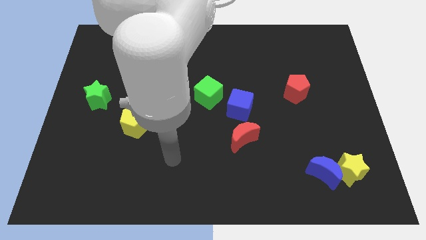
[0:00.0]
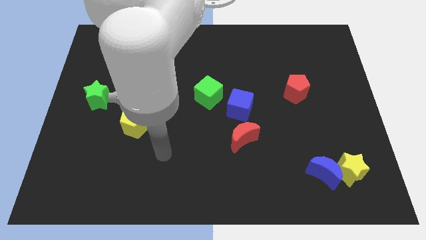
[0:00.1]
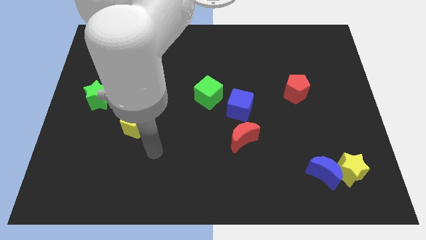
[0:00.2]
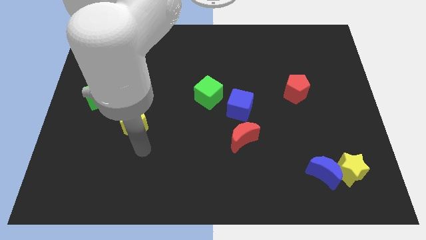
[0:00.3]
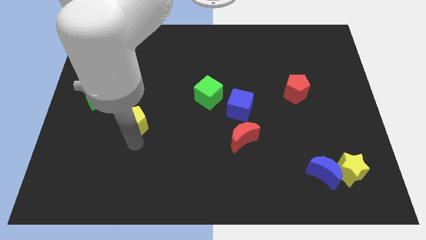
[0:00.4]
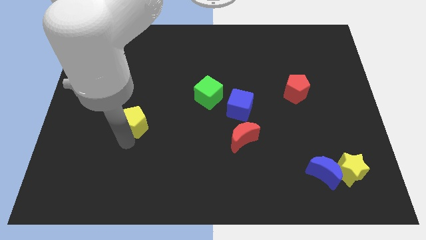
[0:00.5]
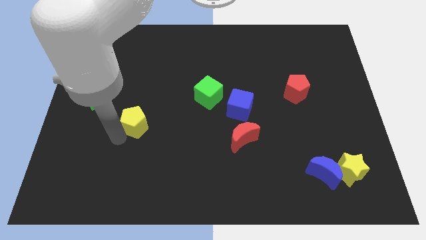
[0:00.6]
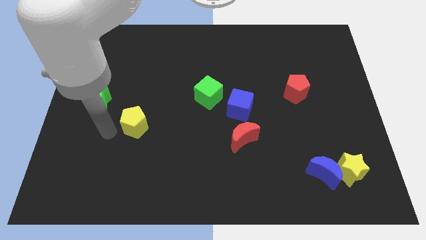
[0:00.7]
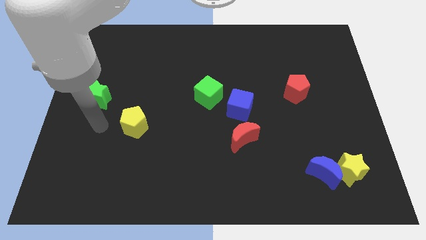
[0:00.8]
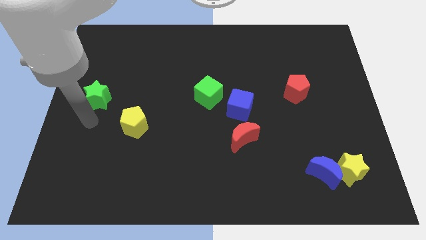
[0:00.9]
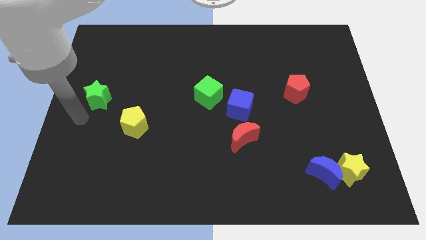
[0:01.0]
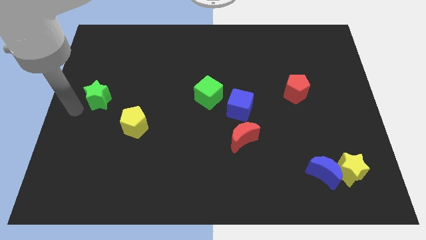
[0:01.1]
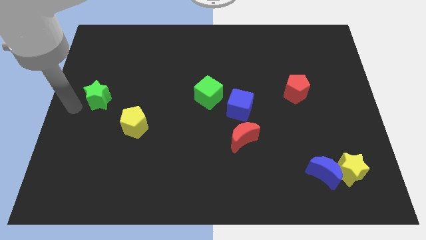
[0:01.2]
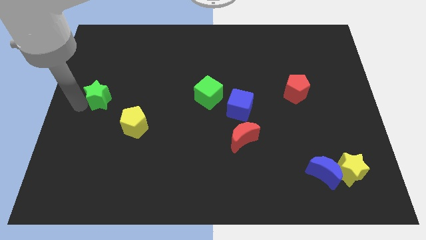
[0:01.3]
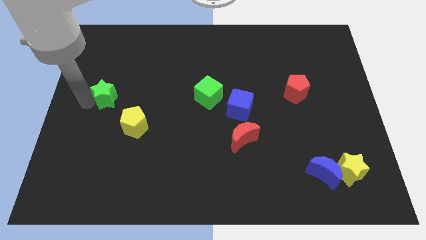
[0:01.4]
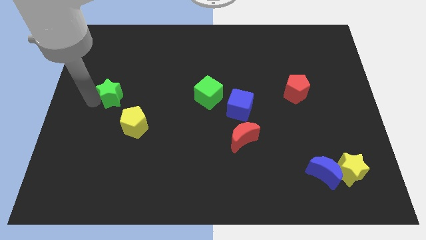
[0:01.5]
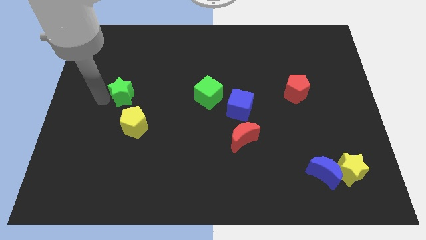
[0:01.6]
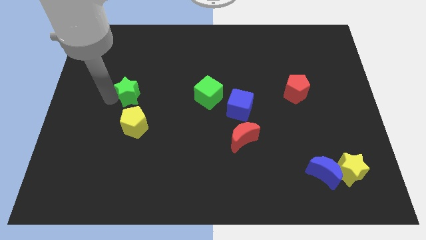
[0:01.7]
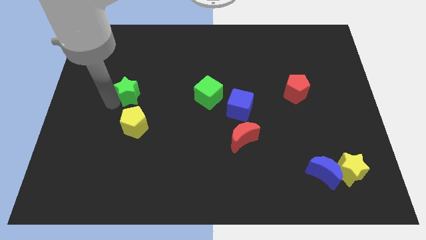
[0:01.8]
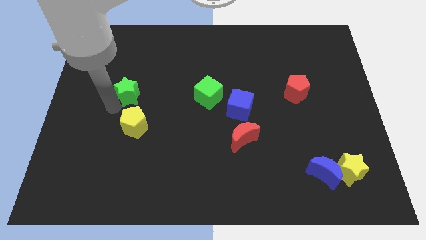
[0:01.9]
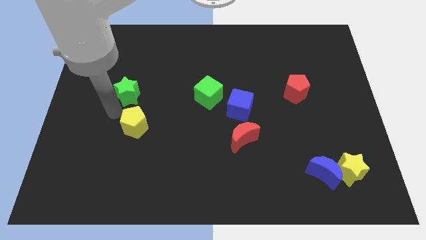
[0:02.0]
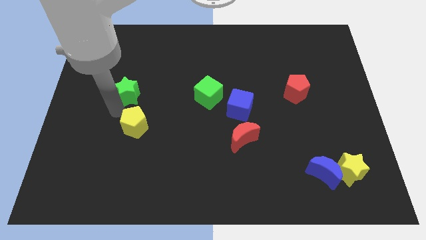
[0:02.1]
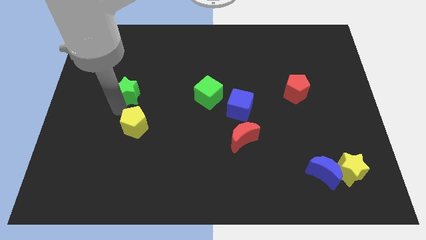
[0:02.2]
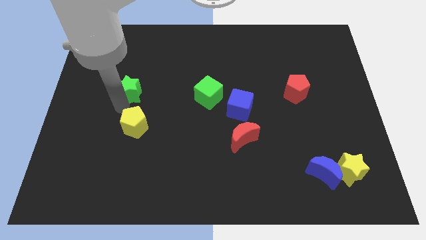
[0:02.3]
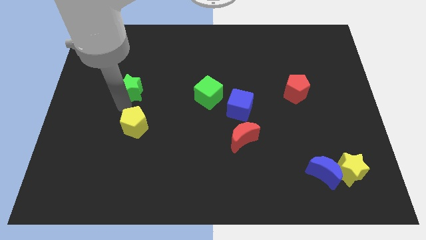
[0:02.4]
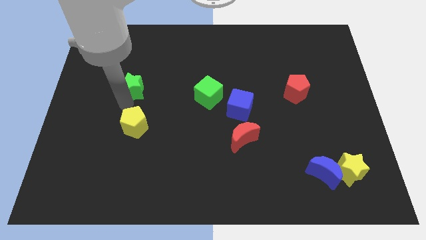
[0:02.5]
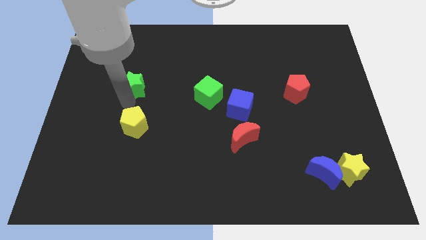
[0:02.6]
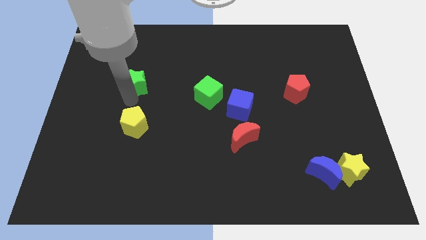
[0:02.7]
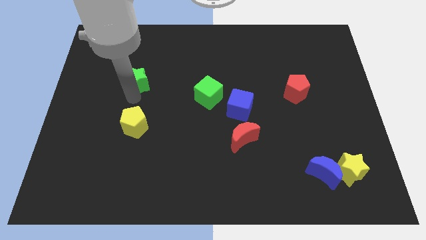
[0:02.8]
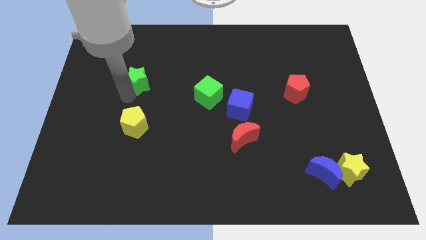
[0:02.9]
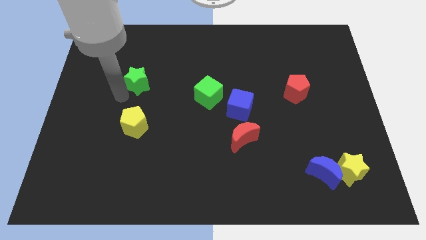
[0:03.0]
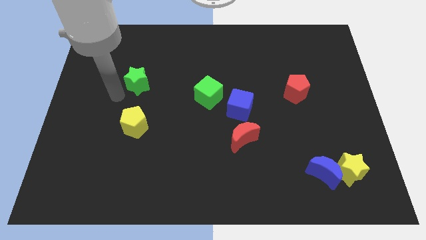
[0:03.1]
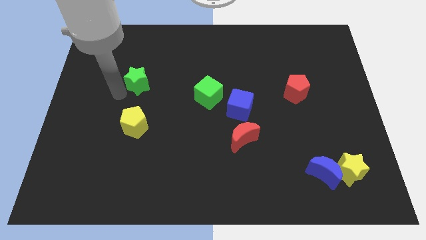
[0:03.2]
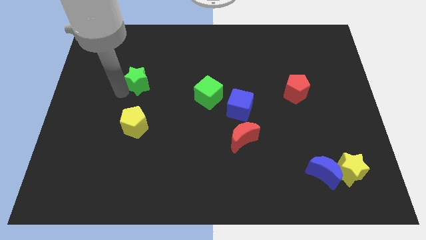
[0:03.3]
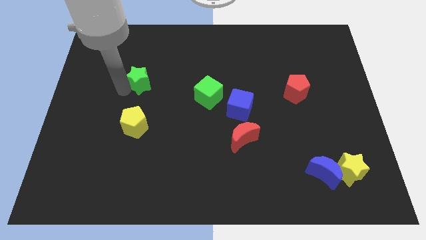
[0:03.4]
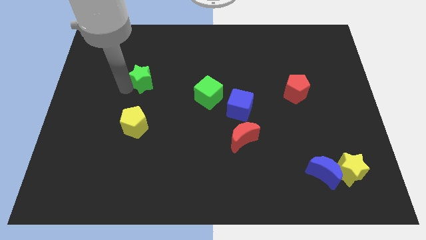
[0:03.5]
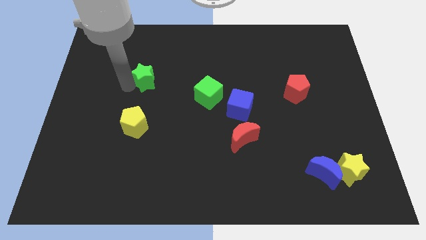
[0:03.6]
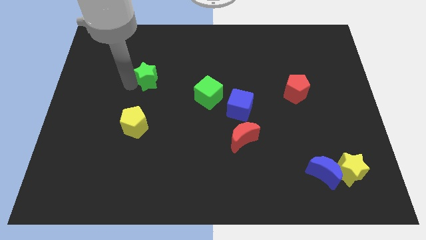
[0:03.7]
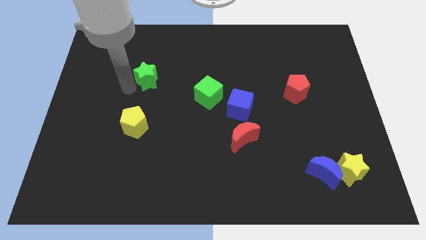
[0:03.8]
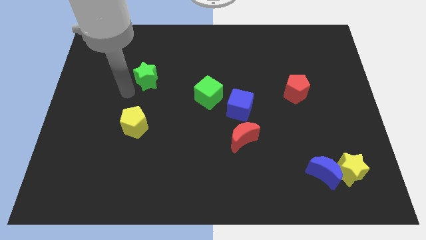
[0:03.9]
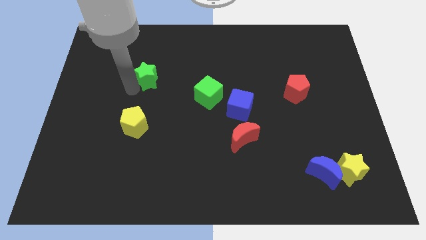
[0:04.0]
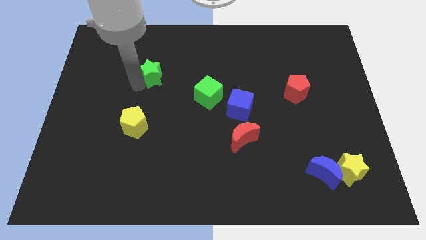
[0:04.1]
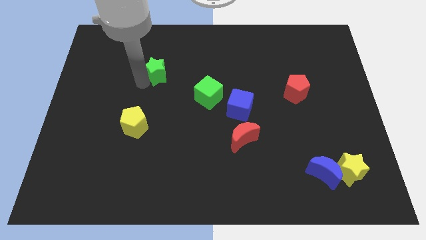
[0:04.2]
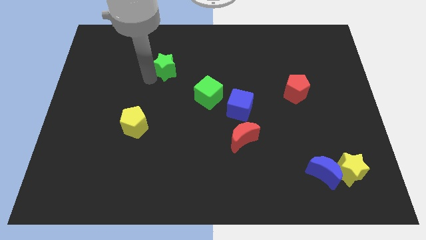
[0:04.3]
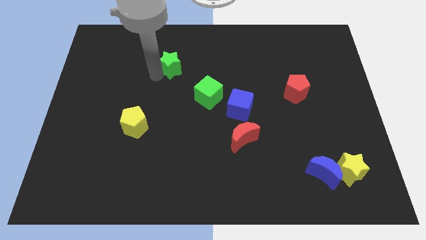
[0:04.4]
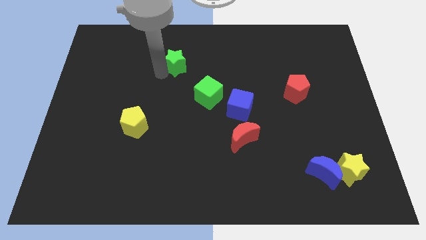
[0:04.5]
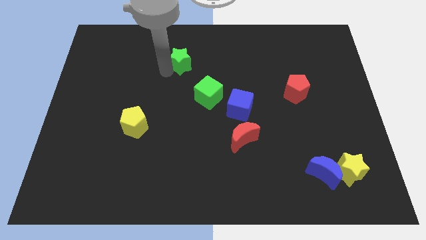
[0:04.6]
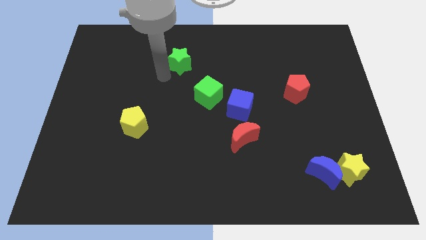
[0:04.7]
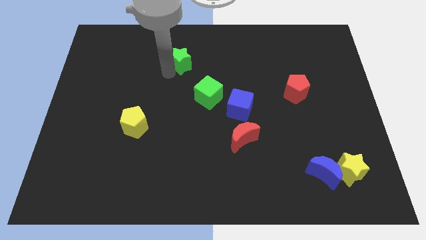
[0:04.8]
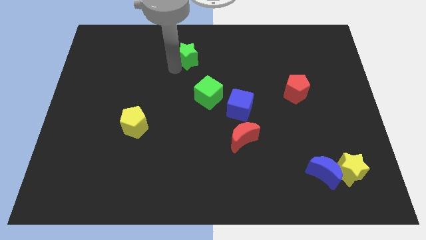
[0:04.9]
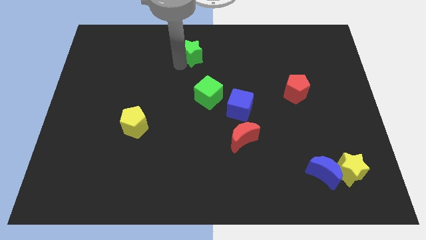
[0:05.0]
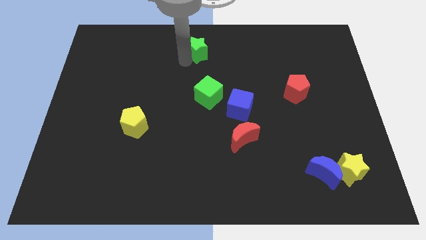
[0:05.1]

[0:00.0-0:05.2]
slide the green star to the towards your base

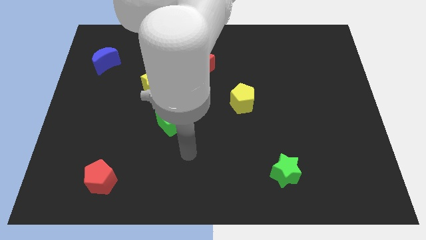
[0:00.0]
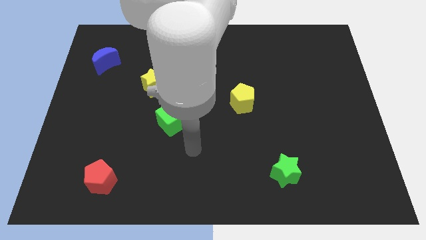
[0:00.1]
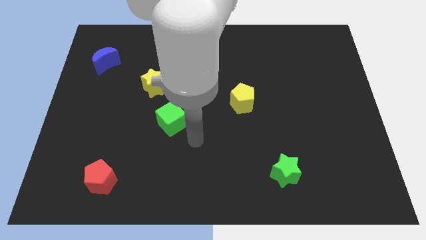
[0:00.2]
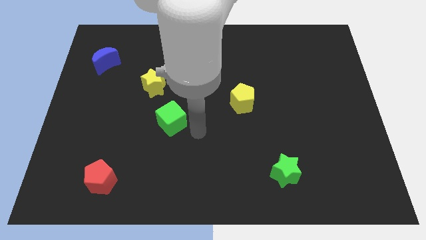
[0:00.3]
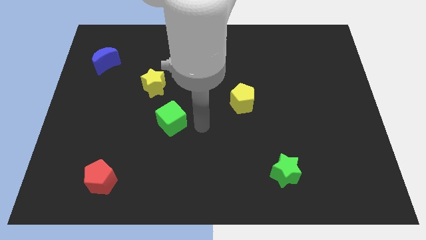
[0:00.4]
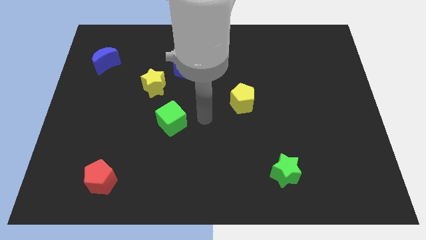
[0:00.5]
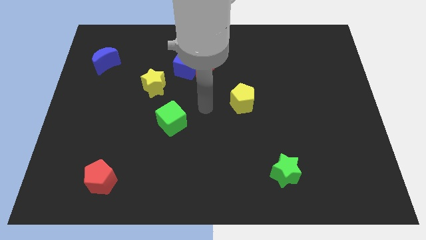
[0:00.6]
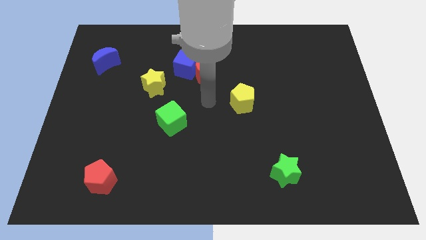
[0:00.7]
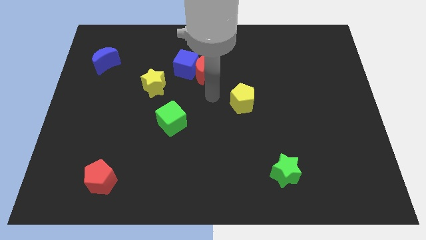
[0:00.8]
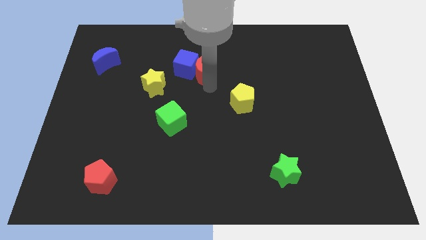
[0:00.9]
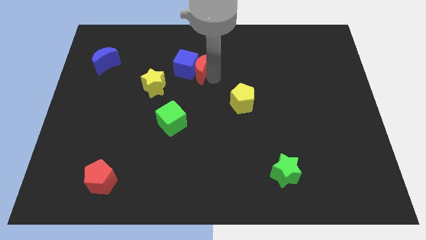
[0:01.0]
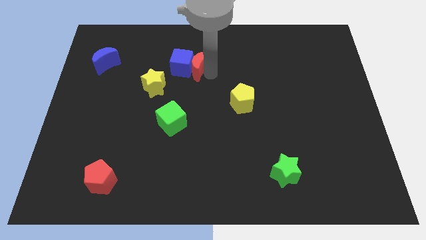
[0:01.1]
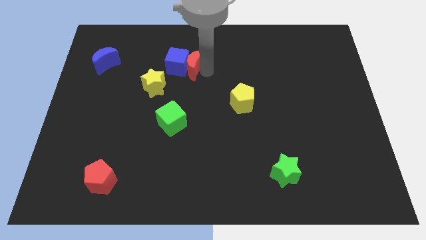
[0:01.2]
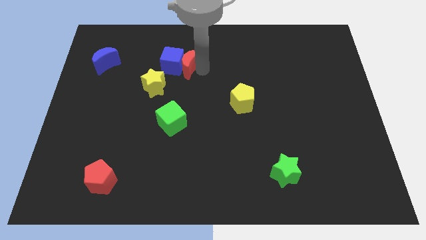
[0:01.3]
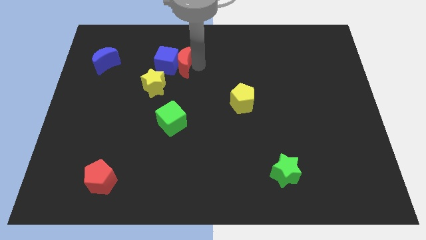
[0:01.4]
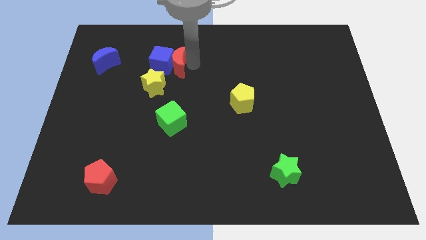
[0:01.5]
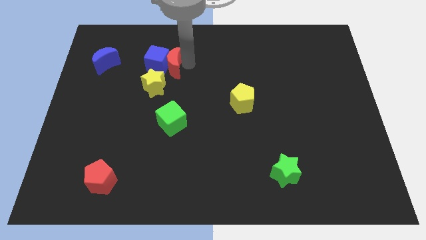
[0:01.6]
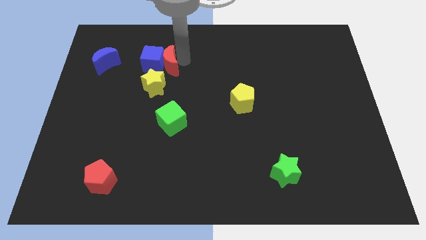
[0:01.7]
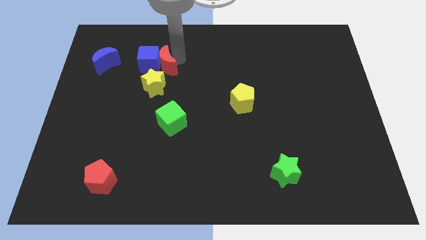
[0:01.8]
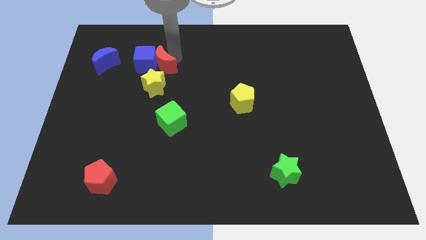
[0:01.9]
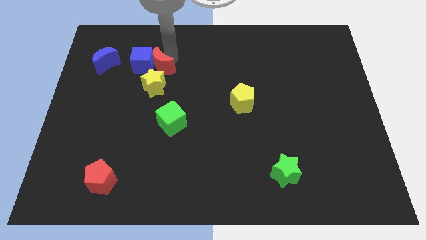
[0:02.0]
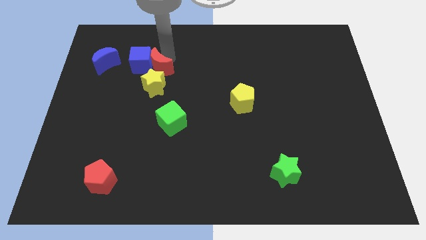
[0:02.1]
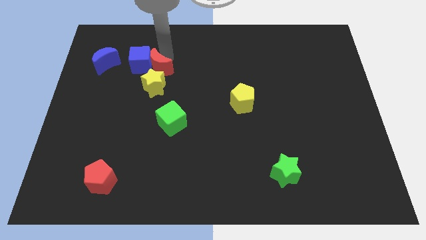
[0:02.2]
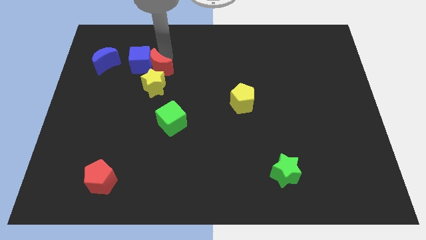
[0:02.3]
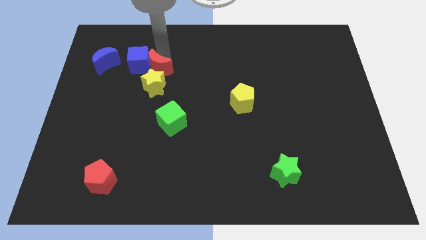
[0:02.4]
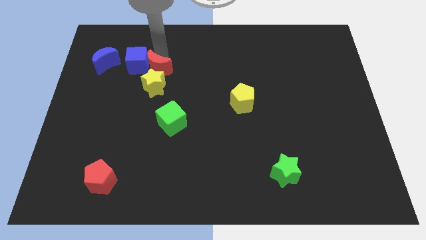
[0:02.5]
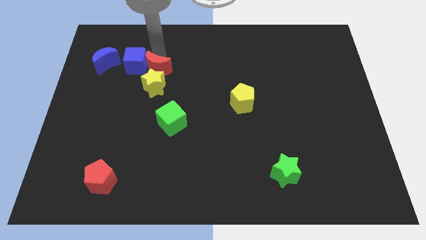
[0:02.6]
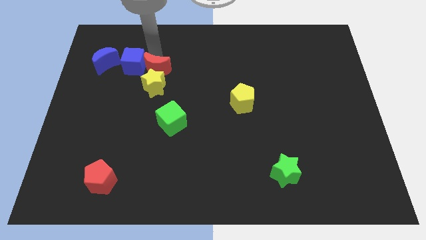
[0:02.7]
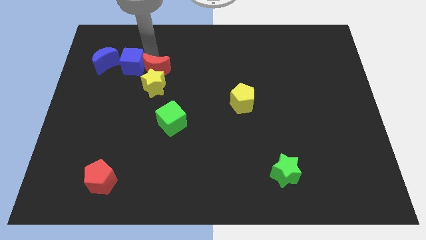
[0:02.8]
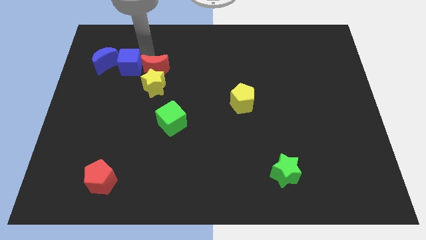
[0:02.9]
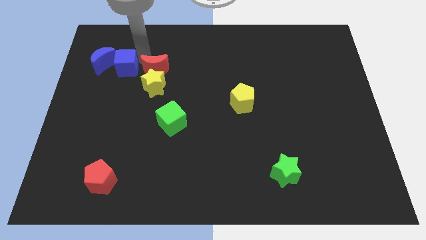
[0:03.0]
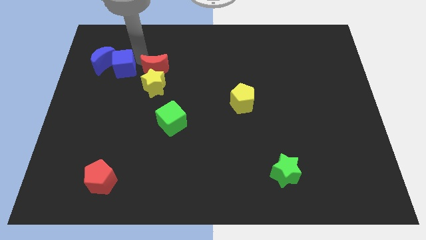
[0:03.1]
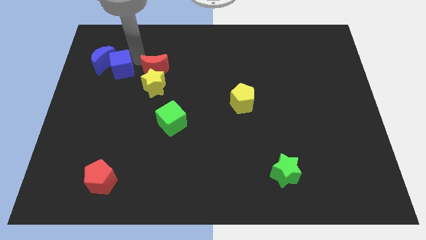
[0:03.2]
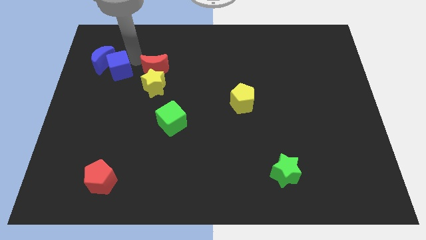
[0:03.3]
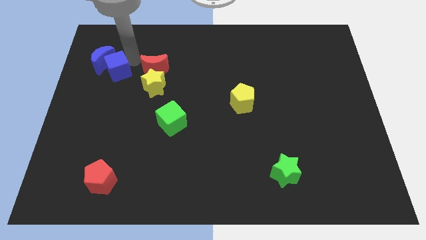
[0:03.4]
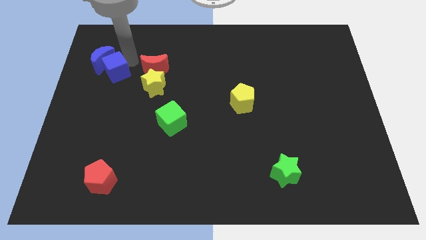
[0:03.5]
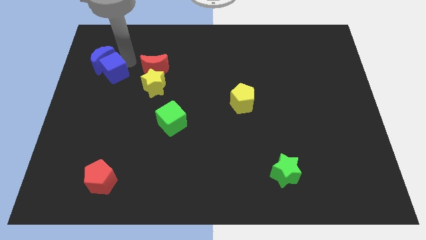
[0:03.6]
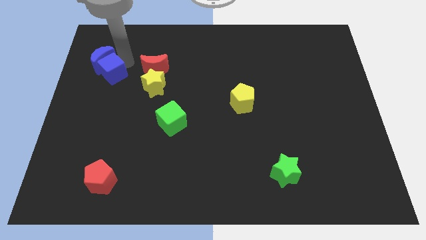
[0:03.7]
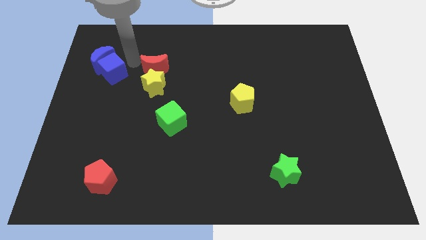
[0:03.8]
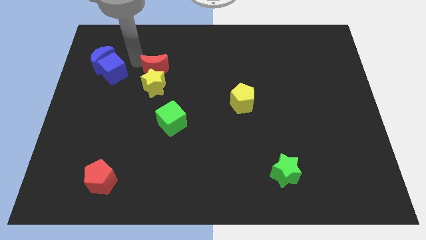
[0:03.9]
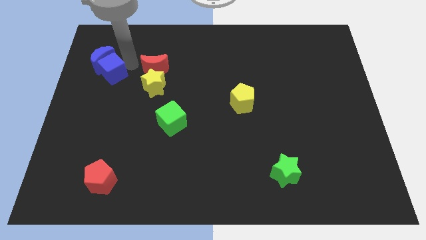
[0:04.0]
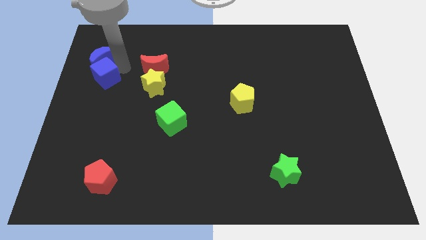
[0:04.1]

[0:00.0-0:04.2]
move the blue cube to the left side of the board
